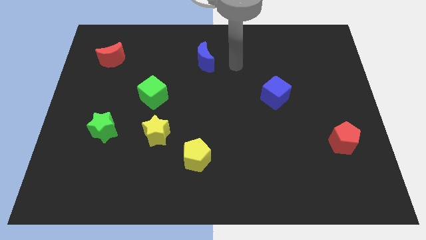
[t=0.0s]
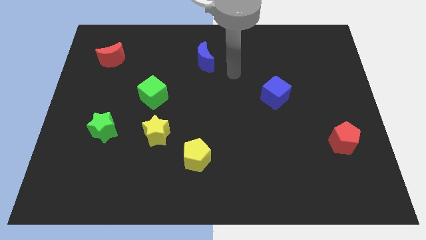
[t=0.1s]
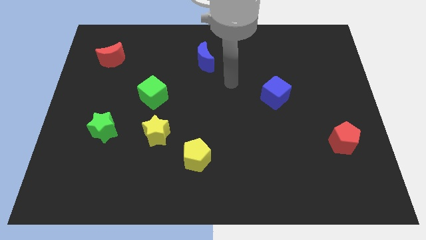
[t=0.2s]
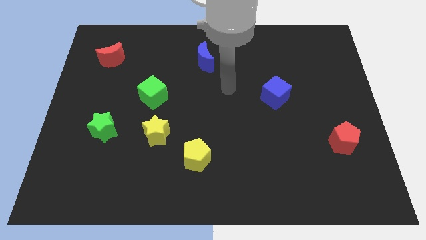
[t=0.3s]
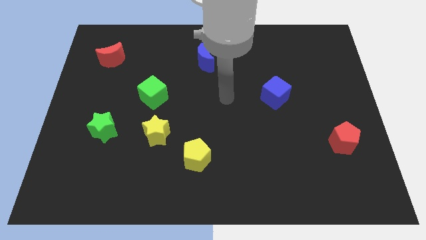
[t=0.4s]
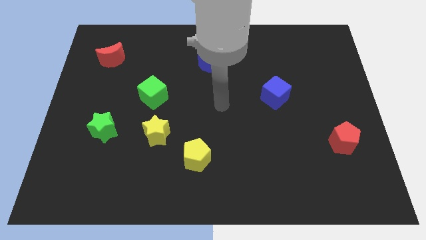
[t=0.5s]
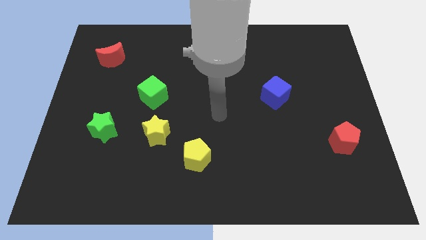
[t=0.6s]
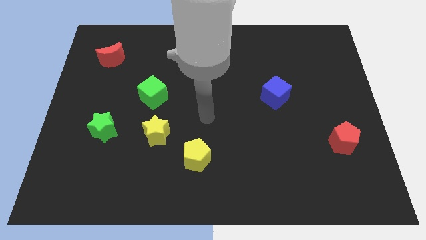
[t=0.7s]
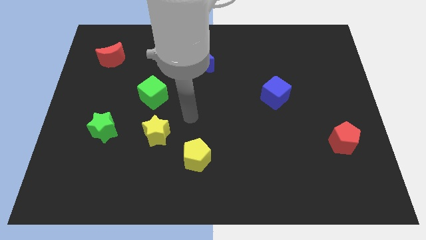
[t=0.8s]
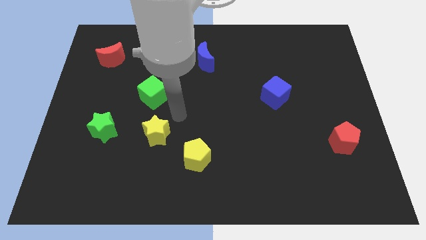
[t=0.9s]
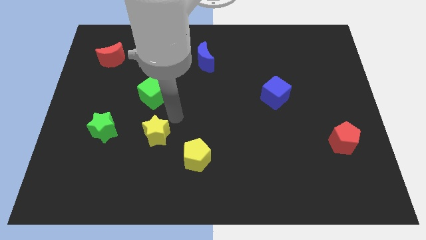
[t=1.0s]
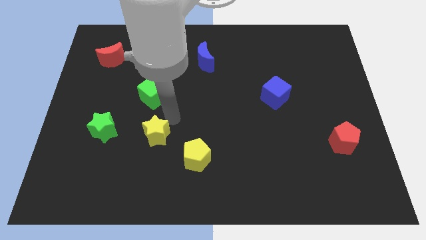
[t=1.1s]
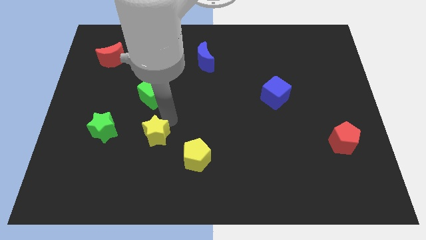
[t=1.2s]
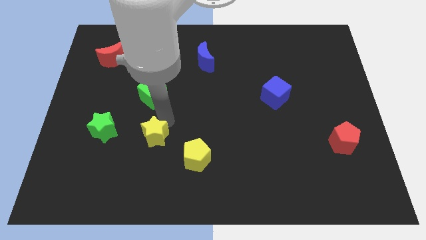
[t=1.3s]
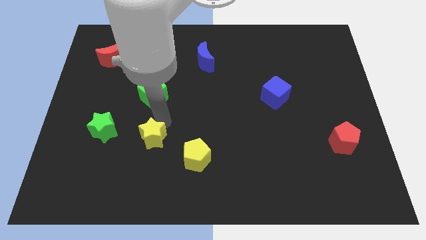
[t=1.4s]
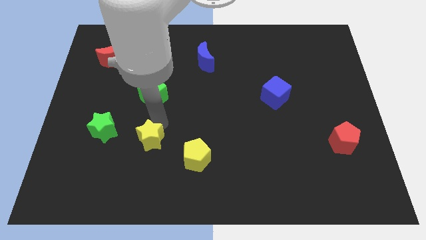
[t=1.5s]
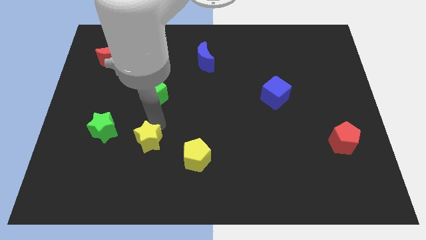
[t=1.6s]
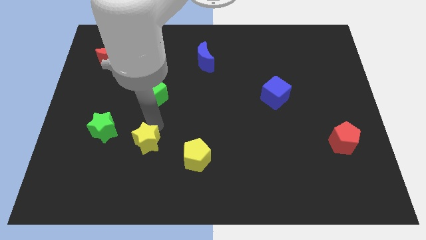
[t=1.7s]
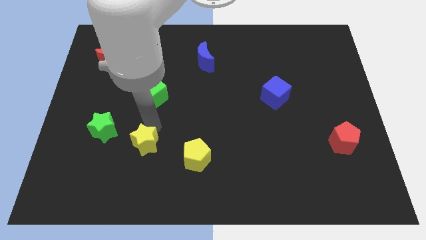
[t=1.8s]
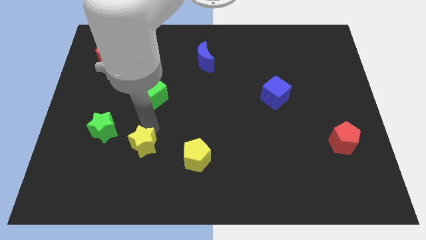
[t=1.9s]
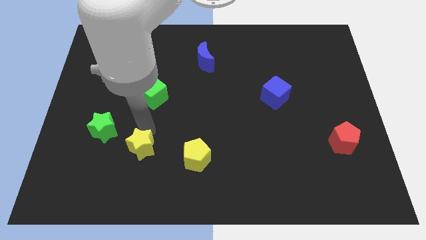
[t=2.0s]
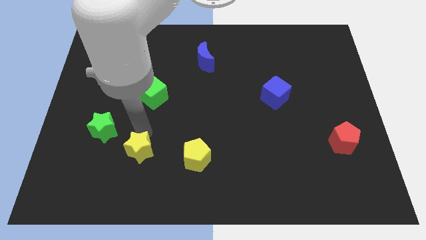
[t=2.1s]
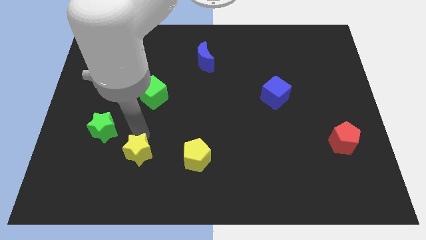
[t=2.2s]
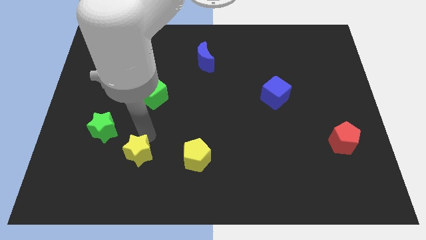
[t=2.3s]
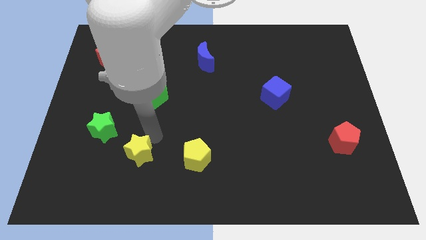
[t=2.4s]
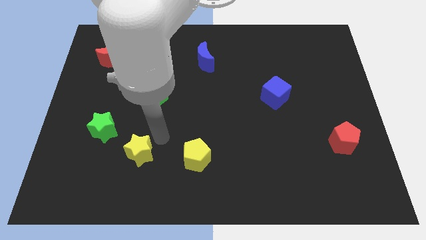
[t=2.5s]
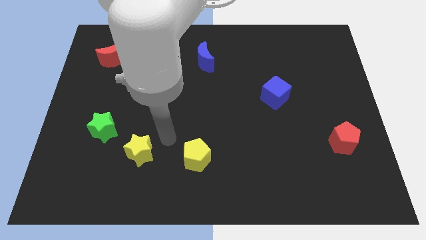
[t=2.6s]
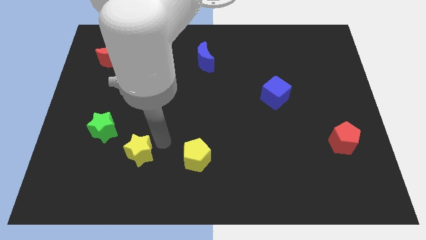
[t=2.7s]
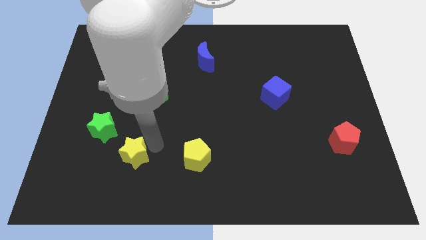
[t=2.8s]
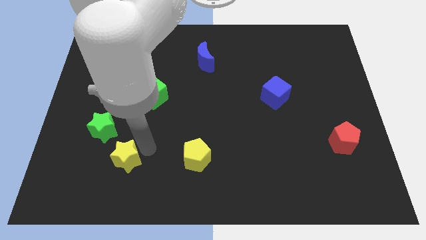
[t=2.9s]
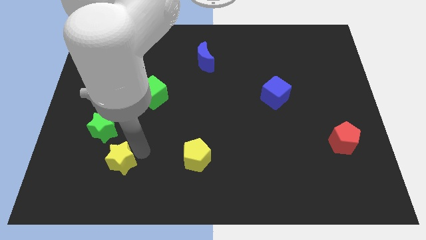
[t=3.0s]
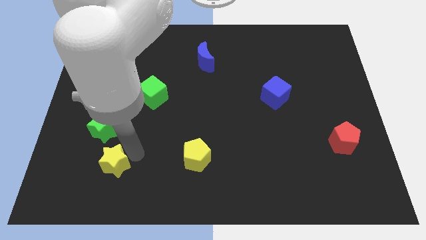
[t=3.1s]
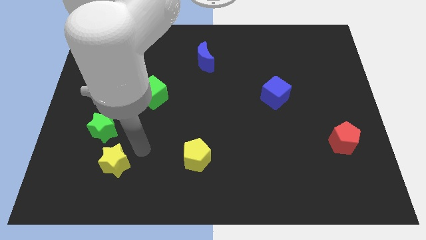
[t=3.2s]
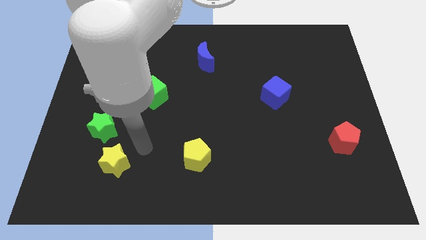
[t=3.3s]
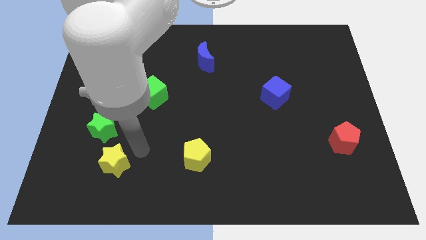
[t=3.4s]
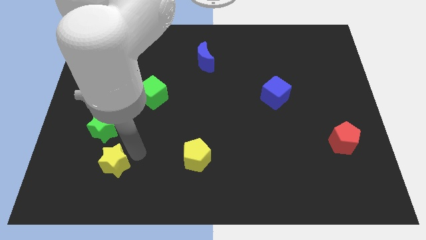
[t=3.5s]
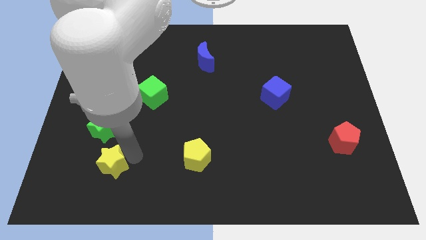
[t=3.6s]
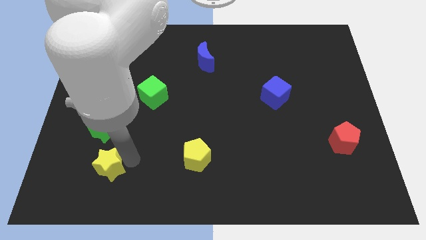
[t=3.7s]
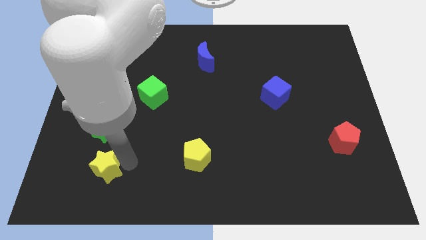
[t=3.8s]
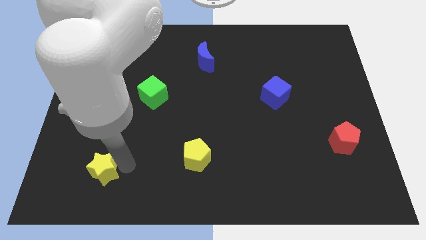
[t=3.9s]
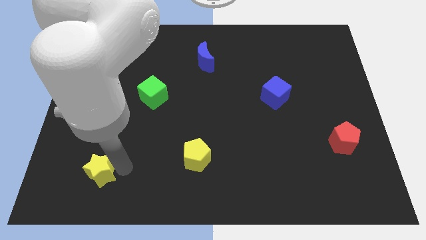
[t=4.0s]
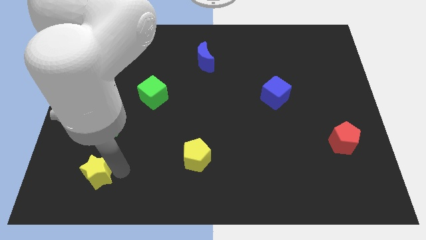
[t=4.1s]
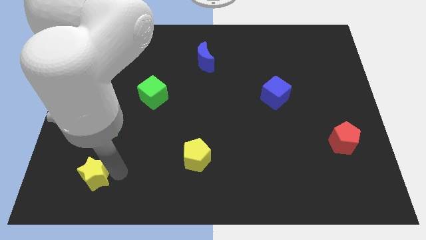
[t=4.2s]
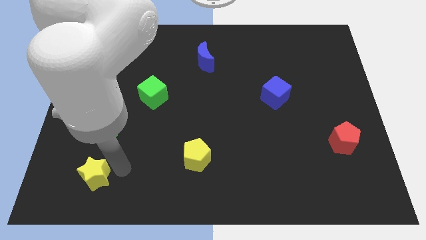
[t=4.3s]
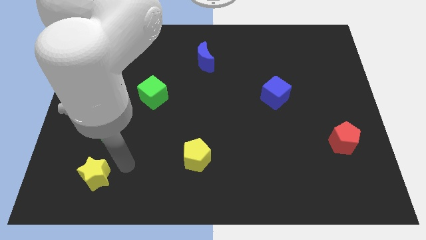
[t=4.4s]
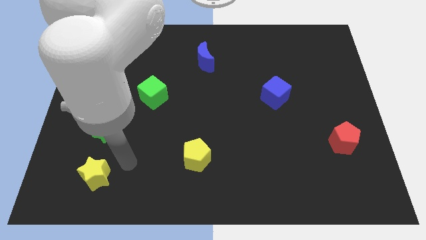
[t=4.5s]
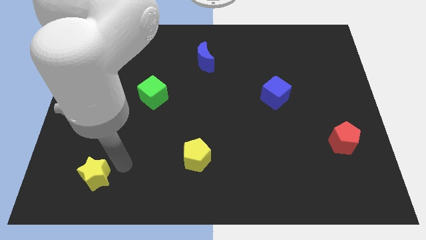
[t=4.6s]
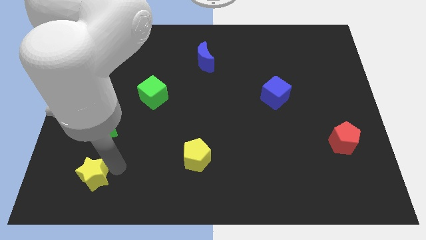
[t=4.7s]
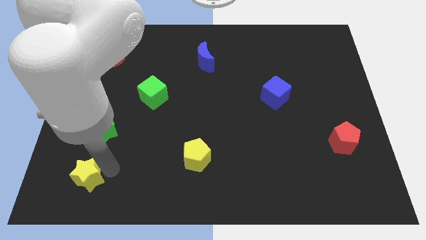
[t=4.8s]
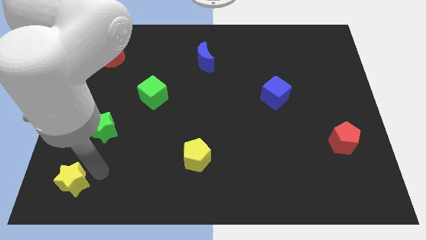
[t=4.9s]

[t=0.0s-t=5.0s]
push the yellow star to the bottom left of the board
